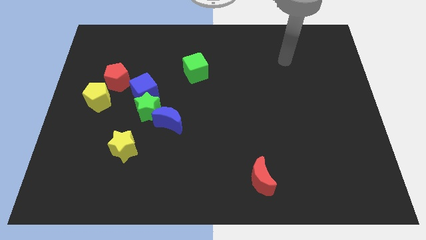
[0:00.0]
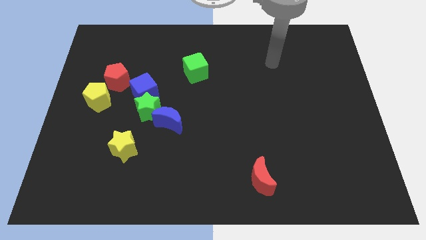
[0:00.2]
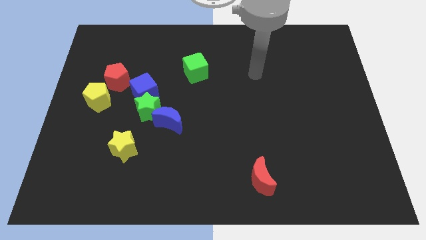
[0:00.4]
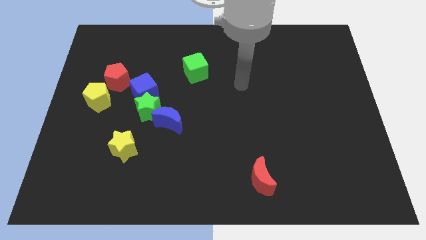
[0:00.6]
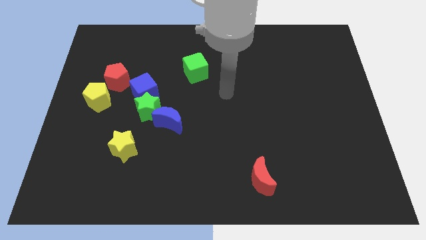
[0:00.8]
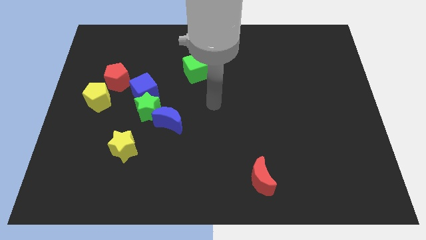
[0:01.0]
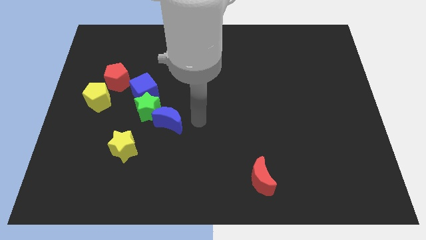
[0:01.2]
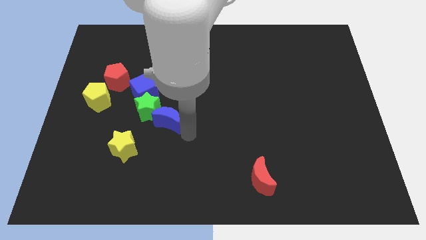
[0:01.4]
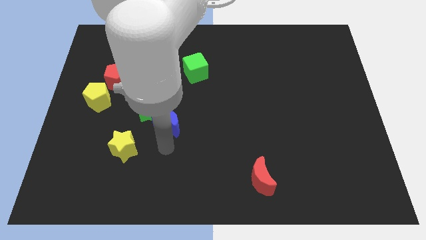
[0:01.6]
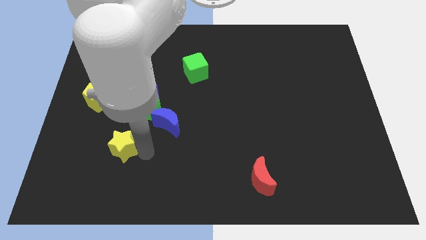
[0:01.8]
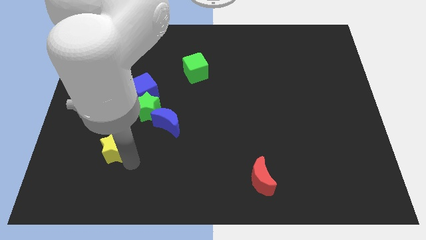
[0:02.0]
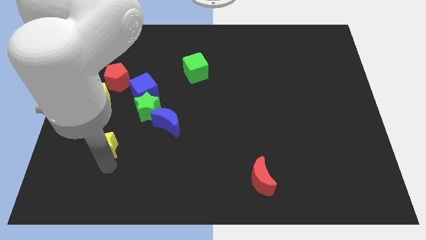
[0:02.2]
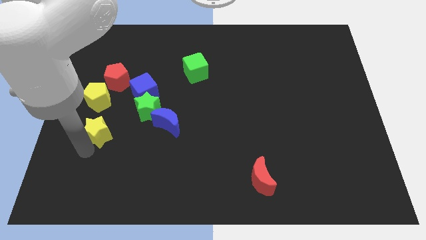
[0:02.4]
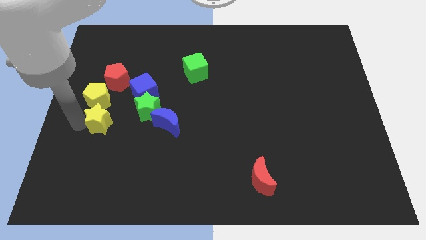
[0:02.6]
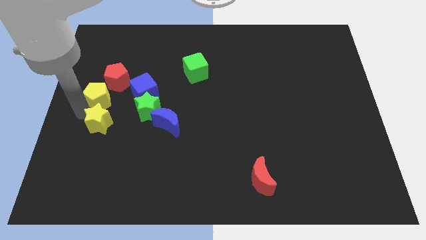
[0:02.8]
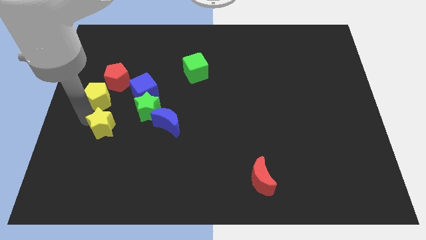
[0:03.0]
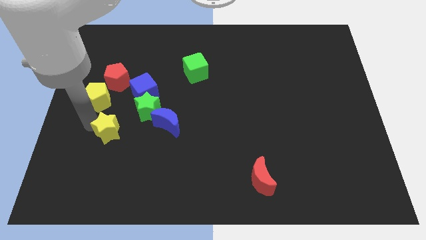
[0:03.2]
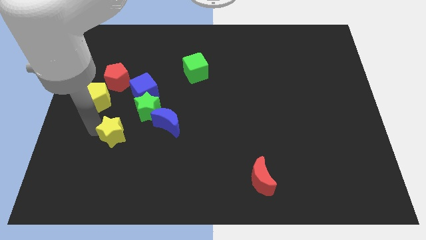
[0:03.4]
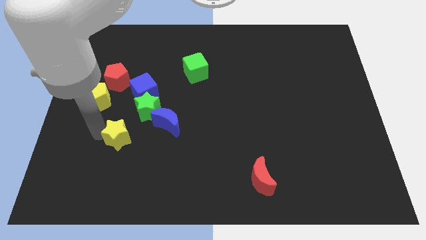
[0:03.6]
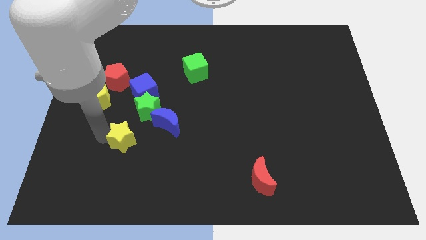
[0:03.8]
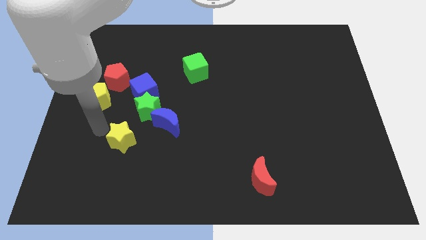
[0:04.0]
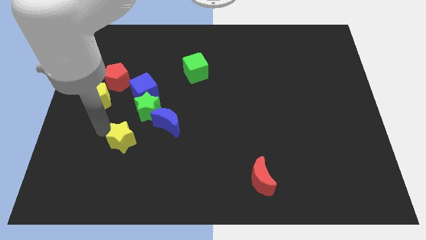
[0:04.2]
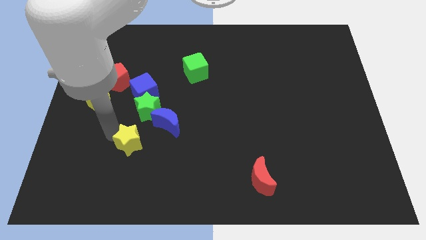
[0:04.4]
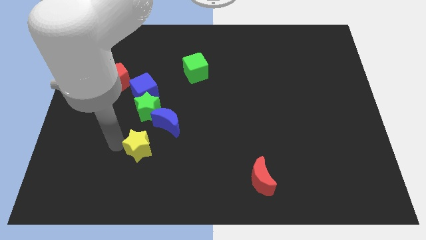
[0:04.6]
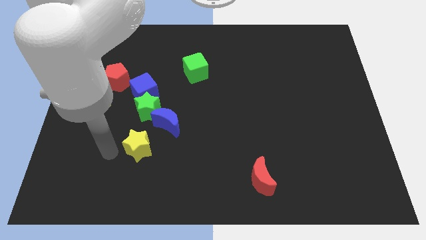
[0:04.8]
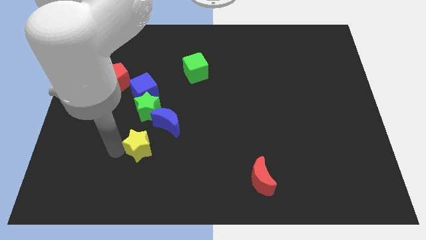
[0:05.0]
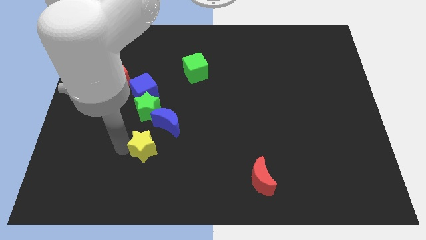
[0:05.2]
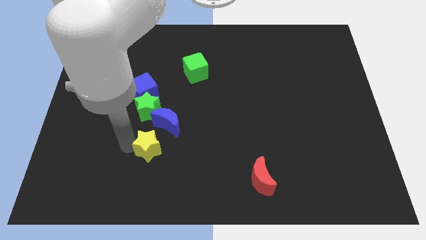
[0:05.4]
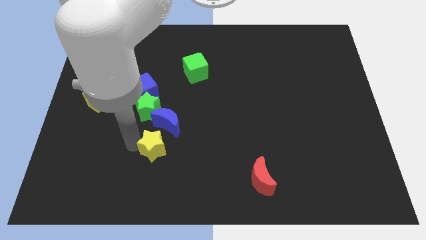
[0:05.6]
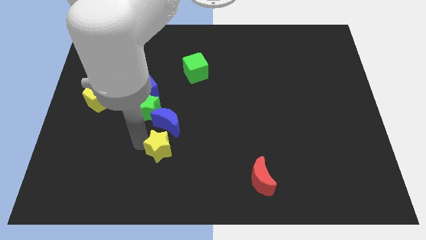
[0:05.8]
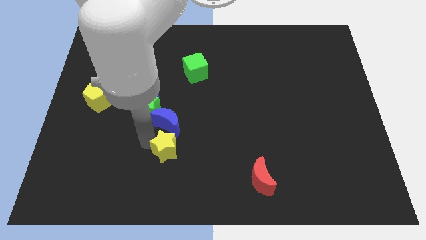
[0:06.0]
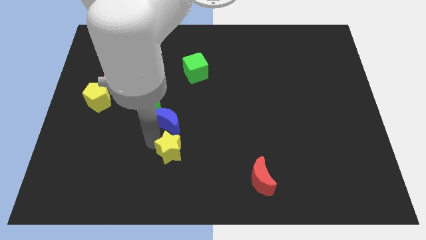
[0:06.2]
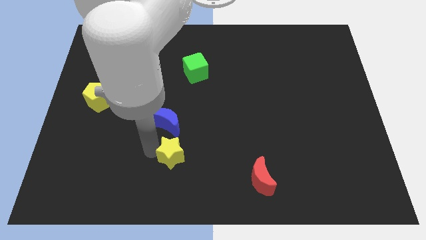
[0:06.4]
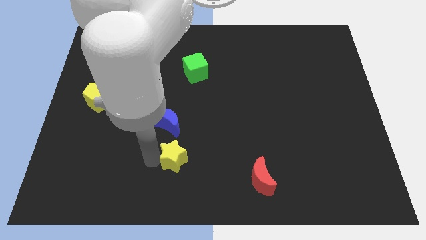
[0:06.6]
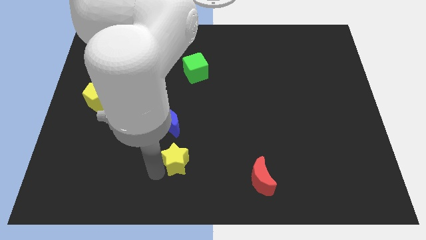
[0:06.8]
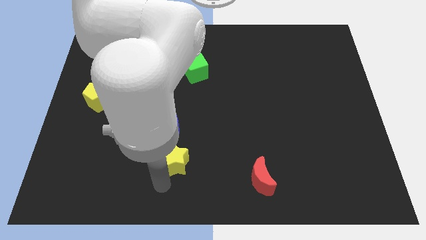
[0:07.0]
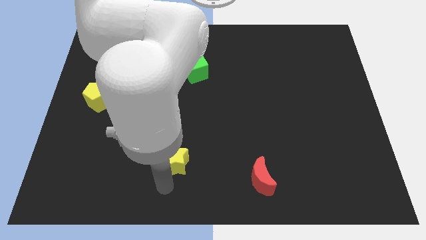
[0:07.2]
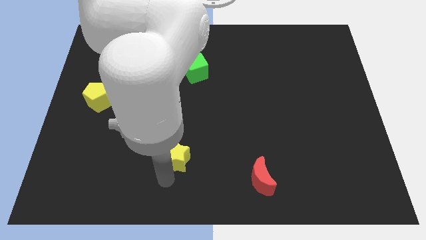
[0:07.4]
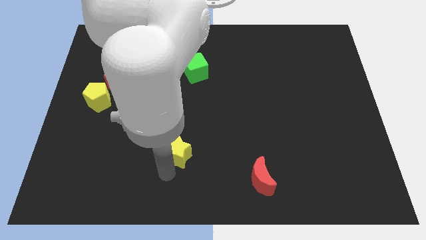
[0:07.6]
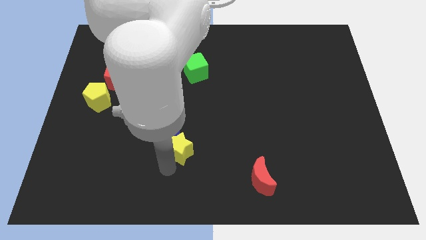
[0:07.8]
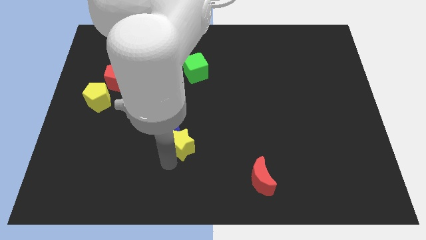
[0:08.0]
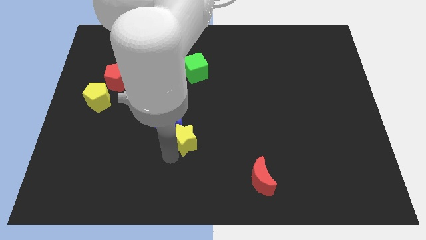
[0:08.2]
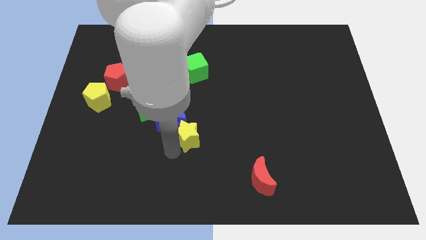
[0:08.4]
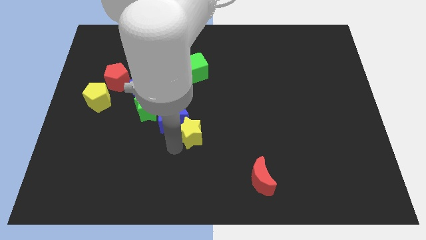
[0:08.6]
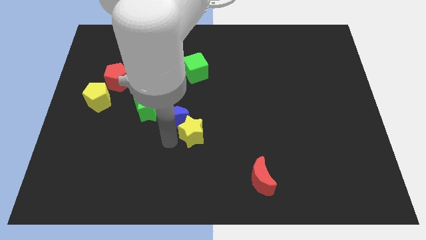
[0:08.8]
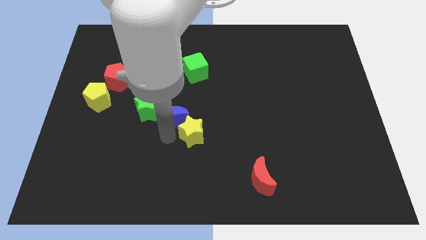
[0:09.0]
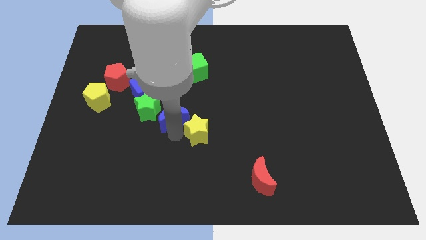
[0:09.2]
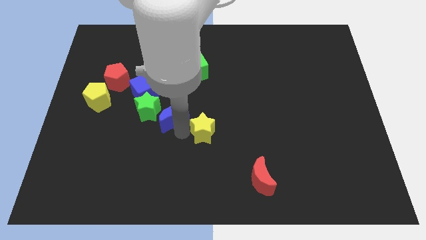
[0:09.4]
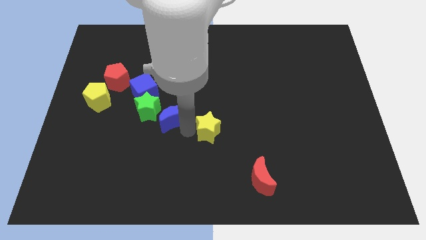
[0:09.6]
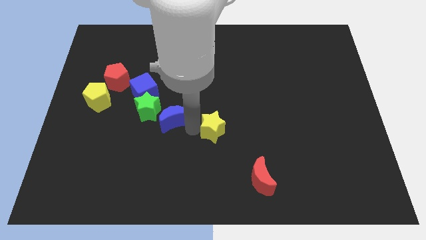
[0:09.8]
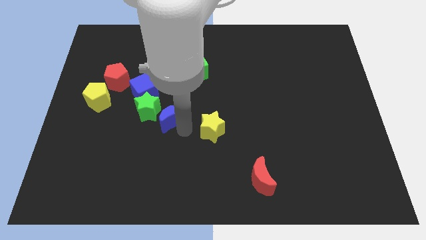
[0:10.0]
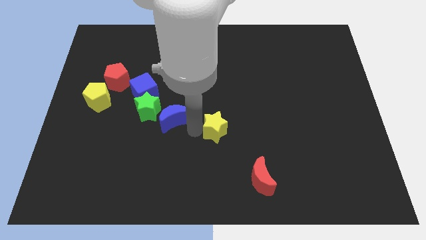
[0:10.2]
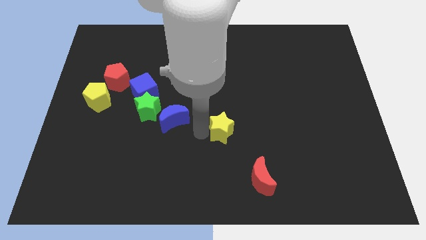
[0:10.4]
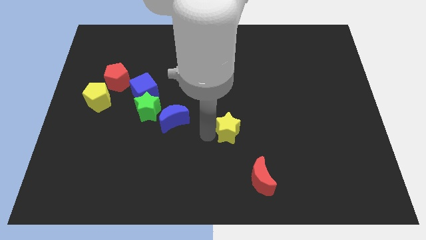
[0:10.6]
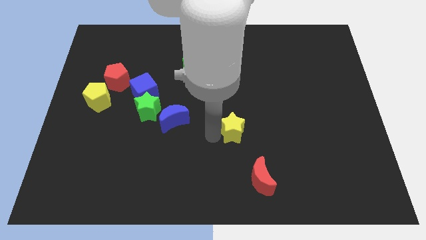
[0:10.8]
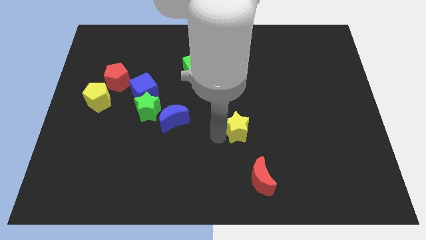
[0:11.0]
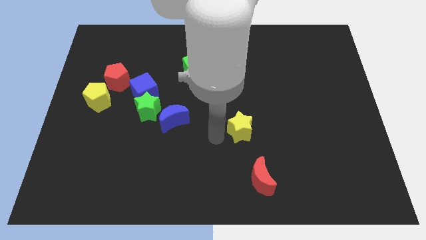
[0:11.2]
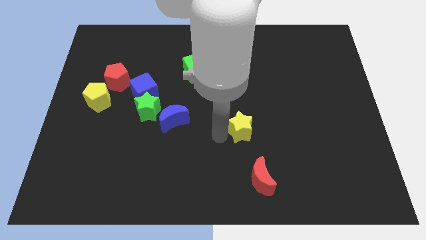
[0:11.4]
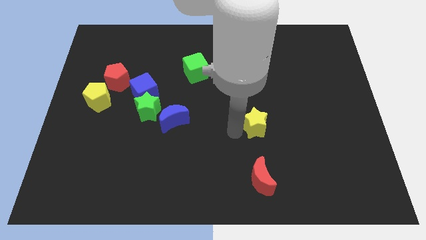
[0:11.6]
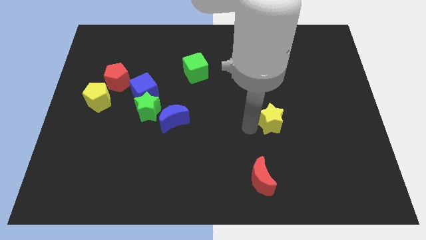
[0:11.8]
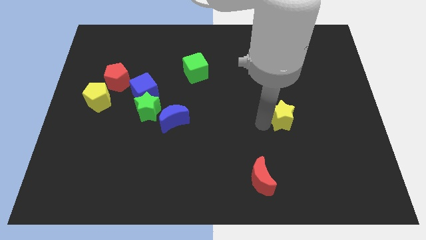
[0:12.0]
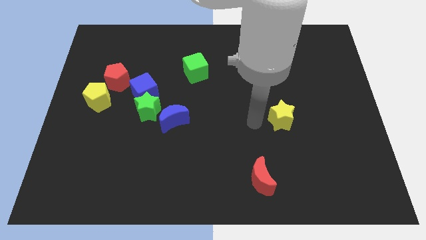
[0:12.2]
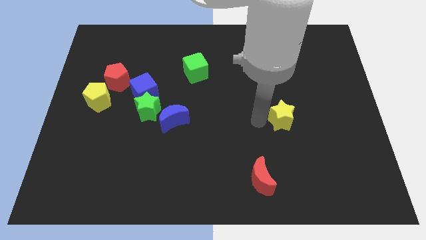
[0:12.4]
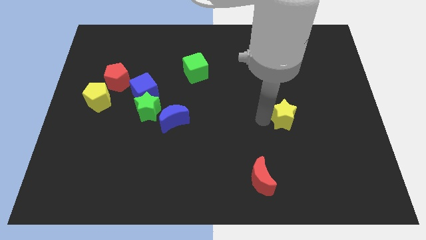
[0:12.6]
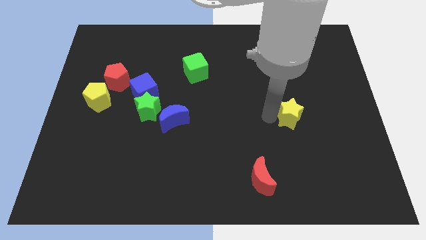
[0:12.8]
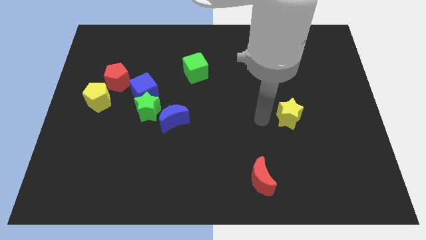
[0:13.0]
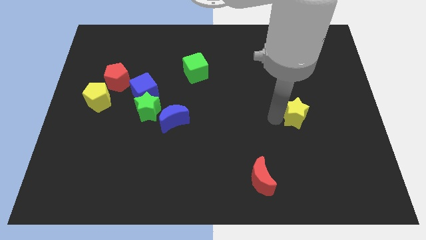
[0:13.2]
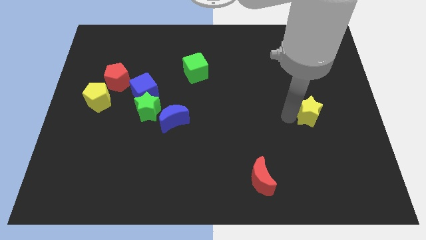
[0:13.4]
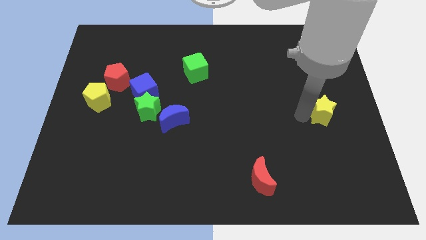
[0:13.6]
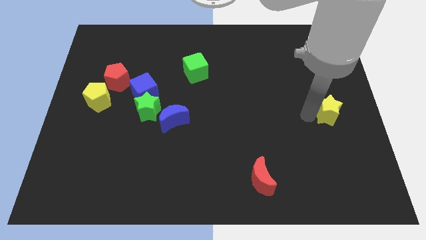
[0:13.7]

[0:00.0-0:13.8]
move the yellow star to the center right
